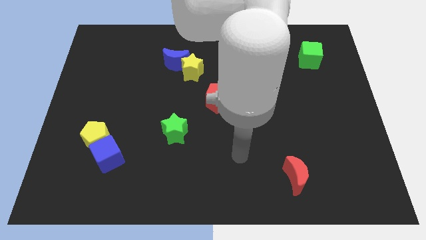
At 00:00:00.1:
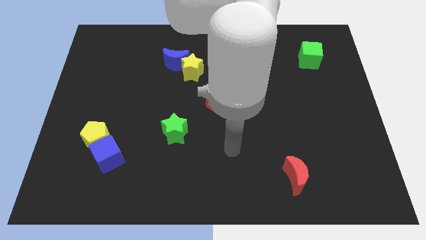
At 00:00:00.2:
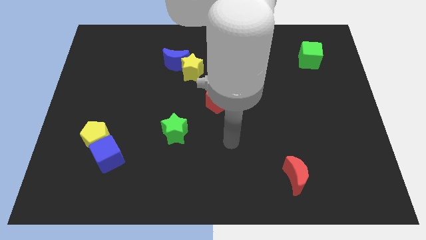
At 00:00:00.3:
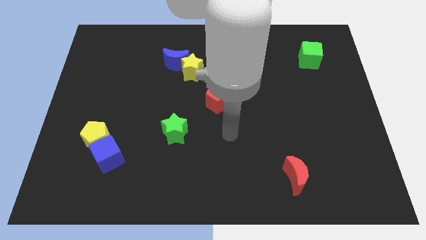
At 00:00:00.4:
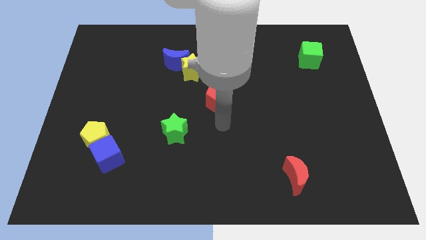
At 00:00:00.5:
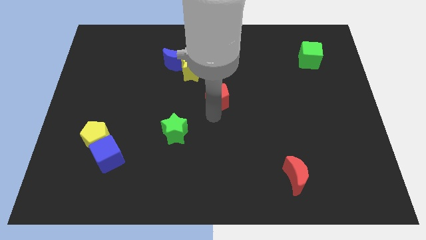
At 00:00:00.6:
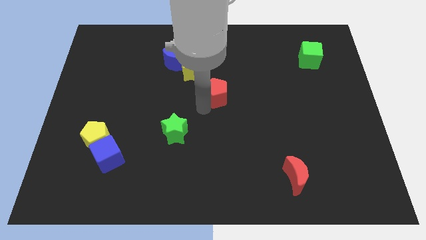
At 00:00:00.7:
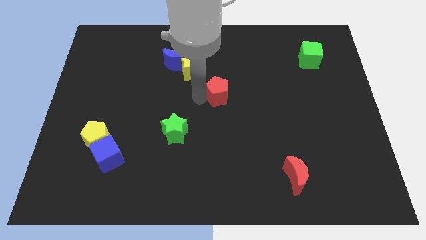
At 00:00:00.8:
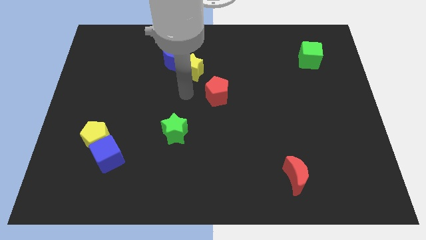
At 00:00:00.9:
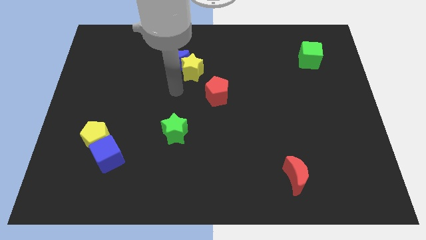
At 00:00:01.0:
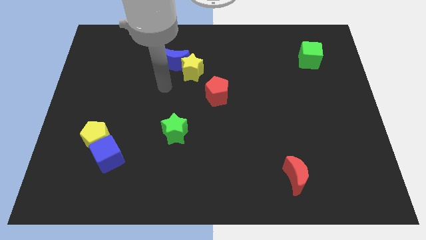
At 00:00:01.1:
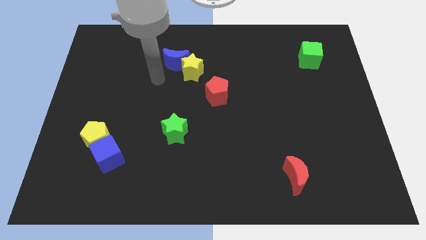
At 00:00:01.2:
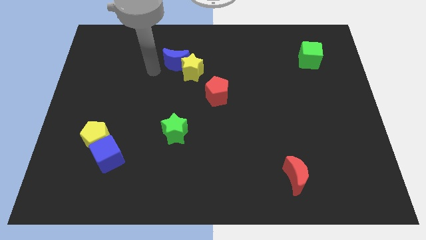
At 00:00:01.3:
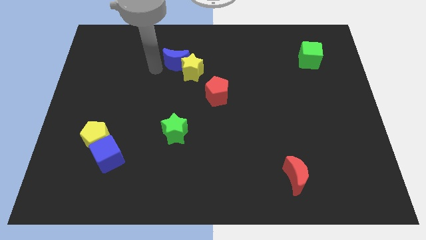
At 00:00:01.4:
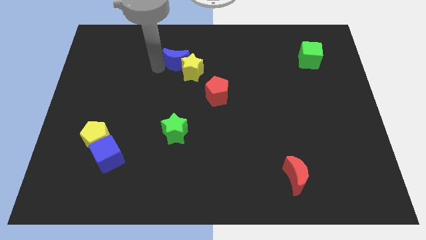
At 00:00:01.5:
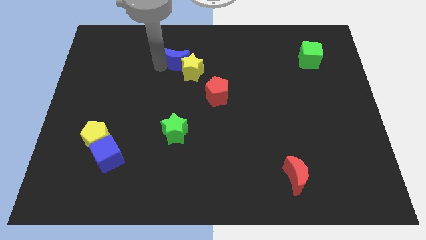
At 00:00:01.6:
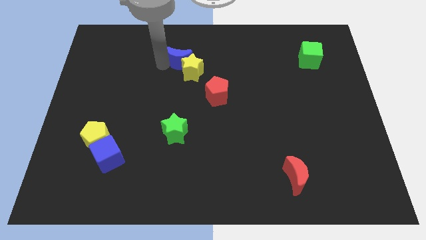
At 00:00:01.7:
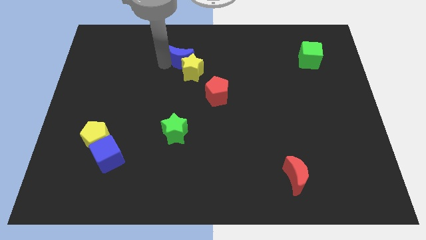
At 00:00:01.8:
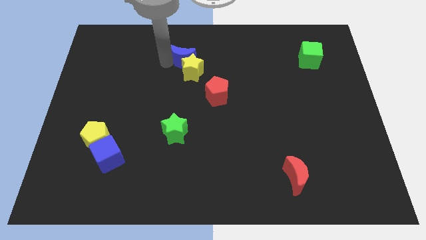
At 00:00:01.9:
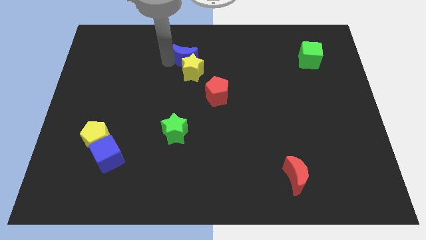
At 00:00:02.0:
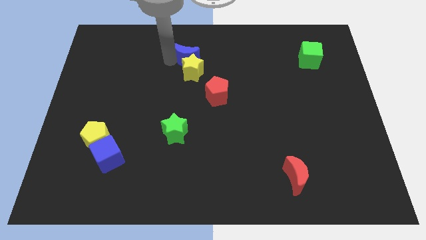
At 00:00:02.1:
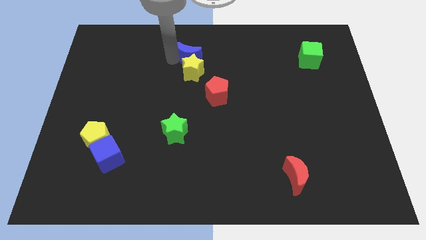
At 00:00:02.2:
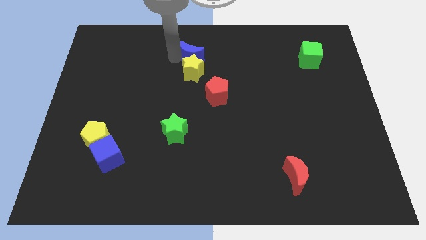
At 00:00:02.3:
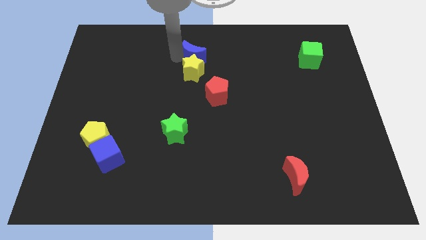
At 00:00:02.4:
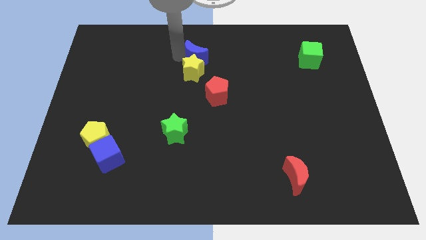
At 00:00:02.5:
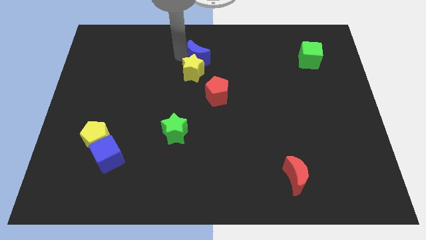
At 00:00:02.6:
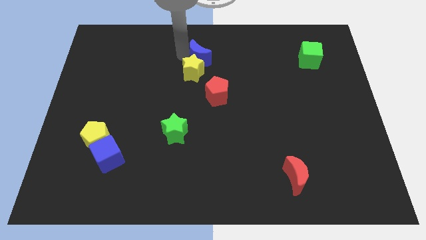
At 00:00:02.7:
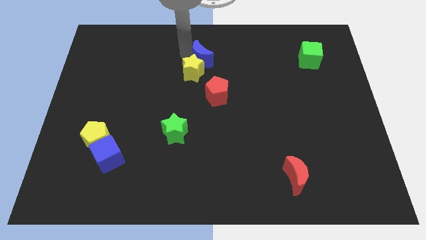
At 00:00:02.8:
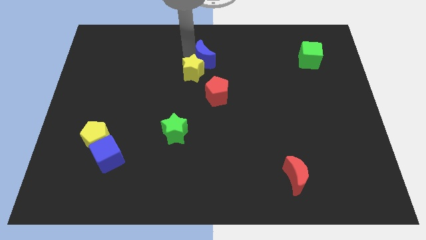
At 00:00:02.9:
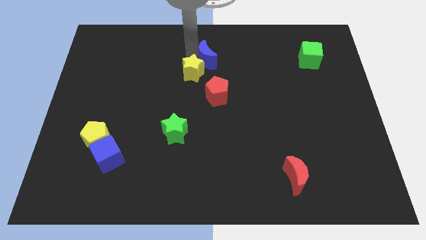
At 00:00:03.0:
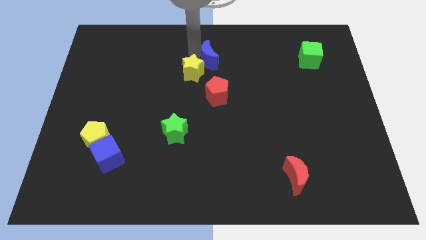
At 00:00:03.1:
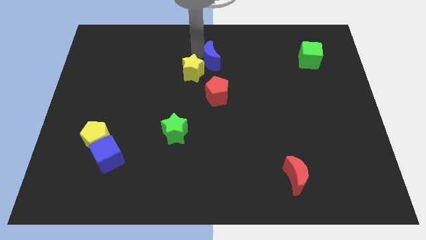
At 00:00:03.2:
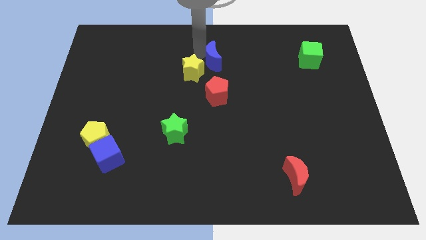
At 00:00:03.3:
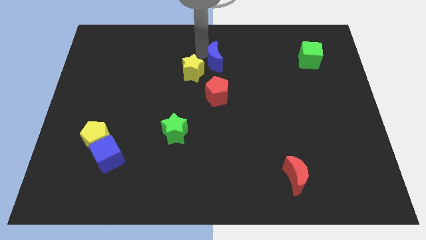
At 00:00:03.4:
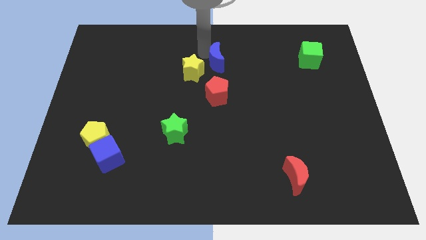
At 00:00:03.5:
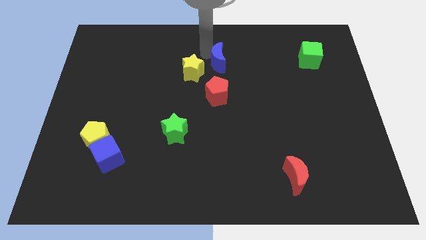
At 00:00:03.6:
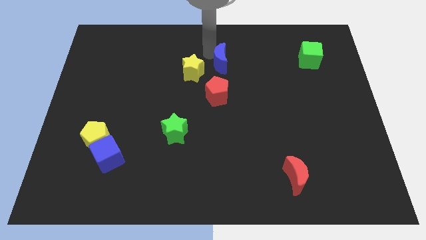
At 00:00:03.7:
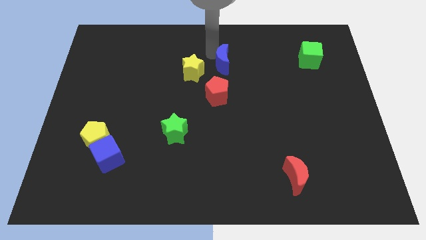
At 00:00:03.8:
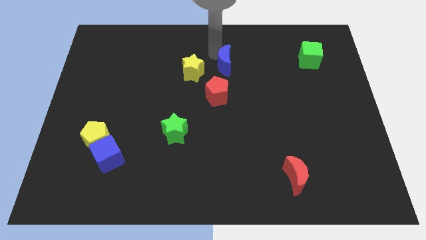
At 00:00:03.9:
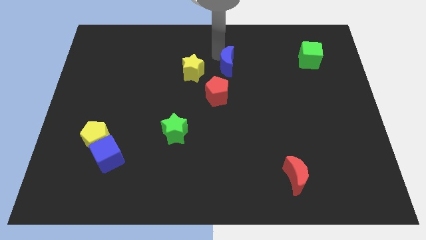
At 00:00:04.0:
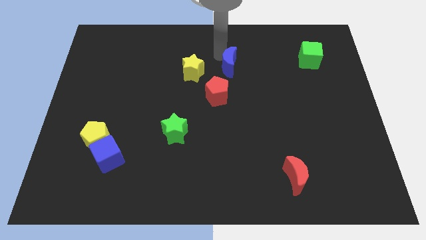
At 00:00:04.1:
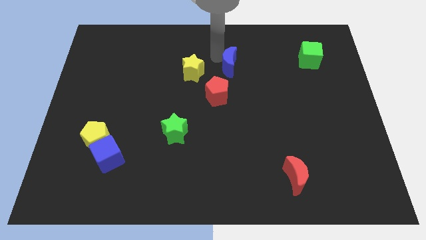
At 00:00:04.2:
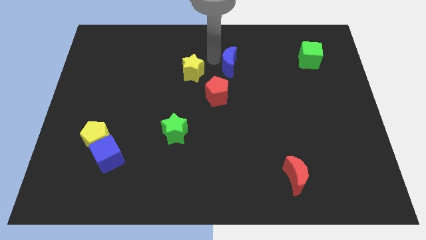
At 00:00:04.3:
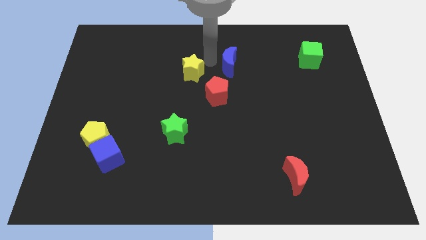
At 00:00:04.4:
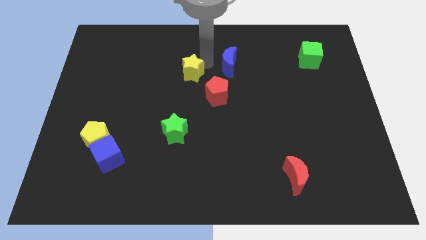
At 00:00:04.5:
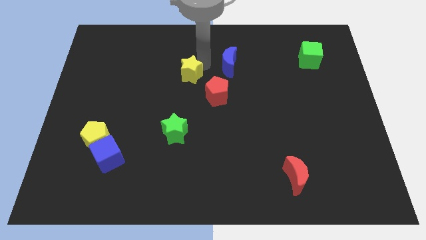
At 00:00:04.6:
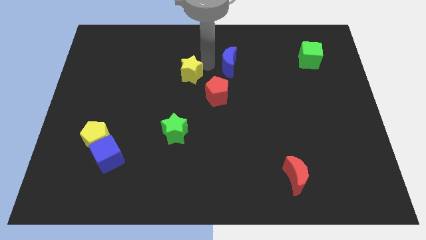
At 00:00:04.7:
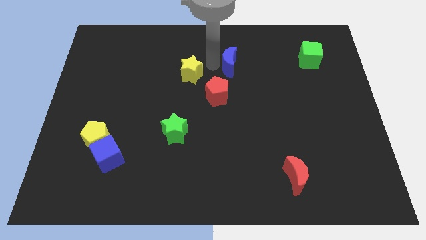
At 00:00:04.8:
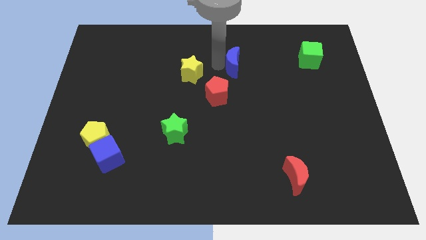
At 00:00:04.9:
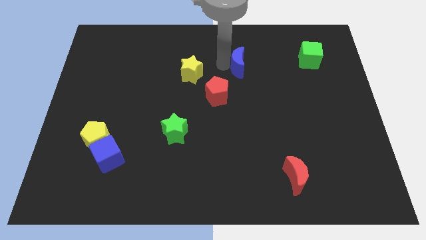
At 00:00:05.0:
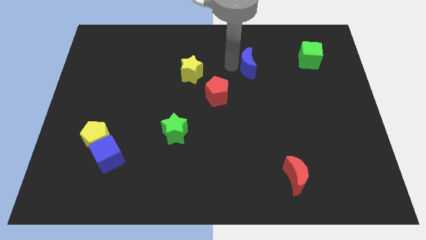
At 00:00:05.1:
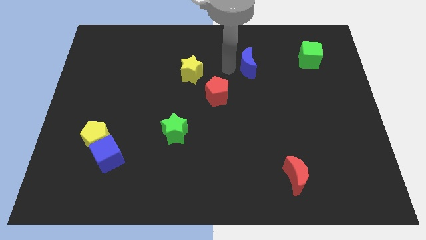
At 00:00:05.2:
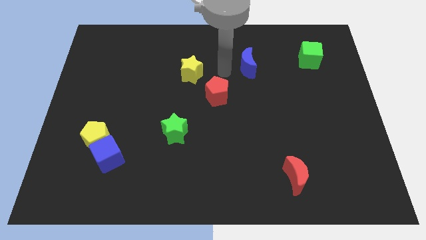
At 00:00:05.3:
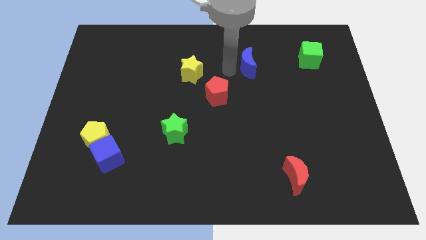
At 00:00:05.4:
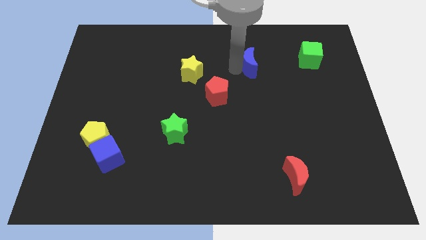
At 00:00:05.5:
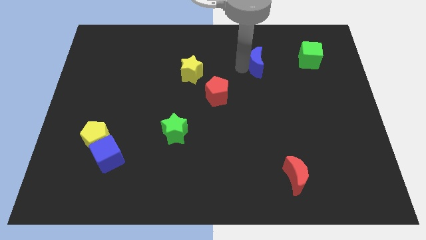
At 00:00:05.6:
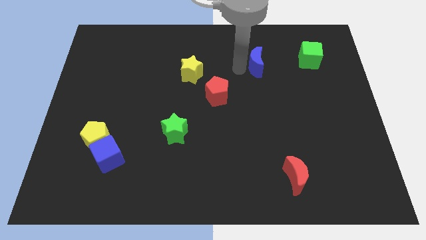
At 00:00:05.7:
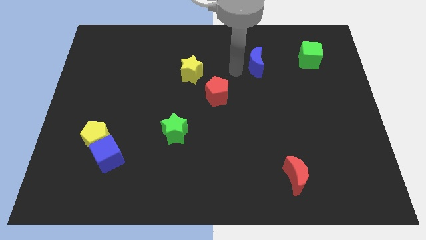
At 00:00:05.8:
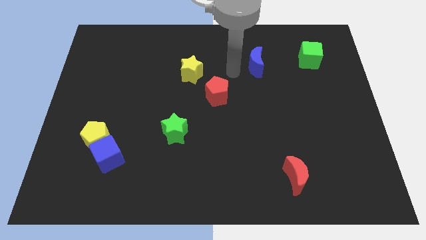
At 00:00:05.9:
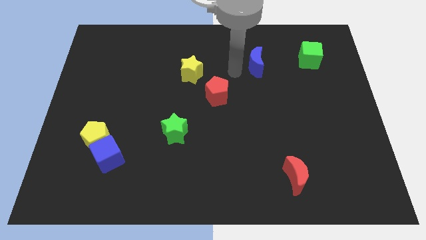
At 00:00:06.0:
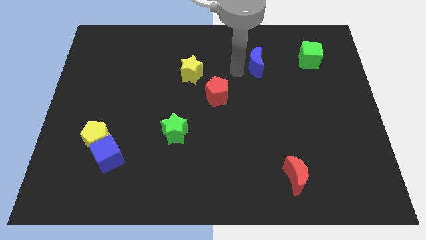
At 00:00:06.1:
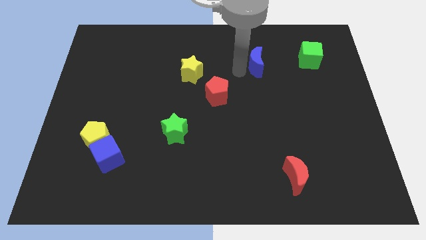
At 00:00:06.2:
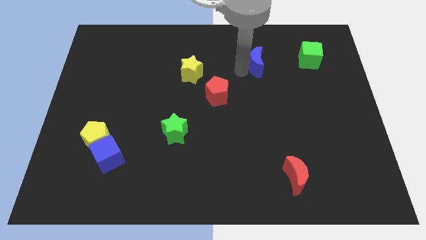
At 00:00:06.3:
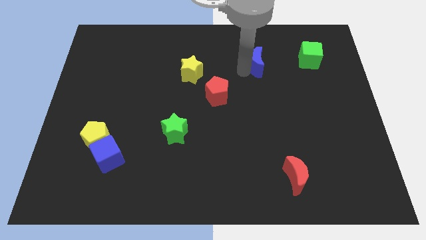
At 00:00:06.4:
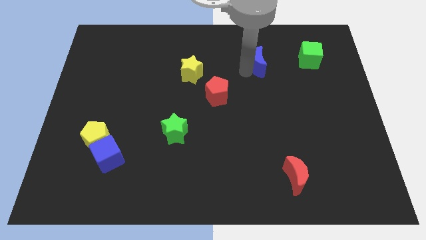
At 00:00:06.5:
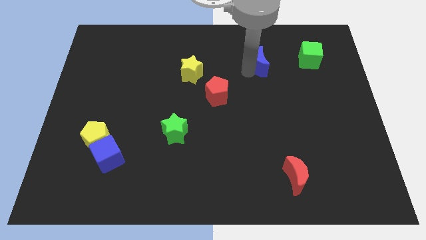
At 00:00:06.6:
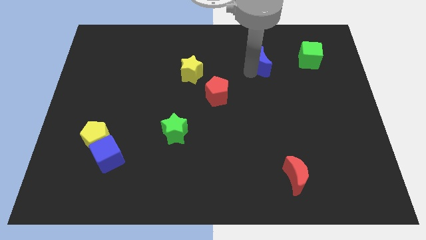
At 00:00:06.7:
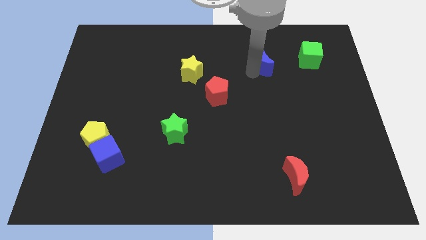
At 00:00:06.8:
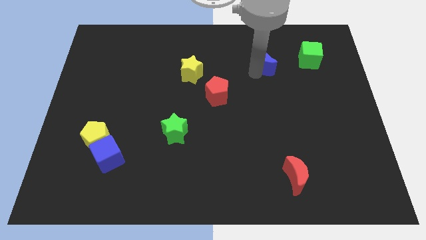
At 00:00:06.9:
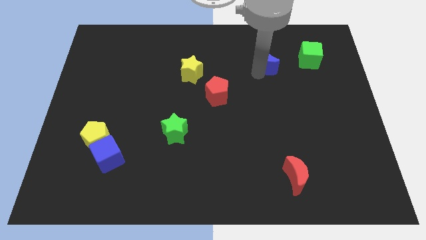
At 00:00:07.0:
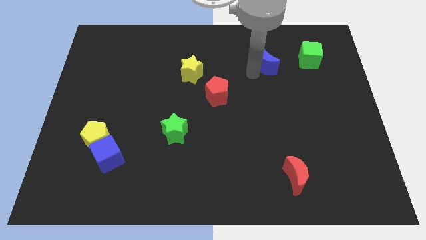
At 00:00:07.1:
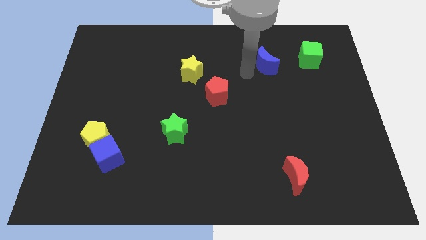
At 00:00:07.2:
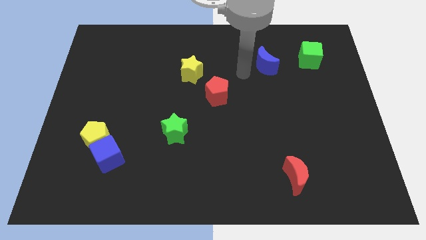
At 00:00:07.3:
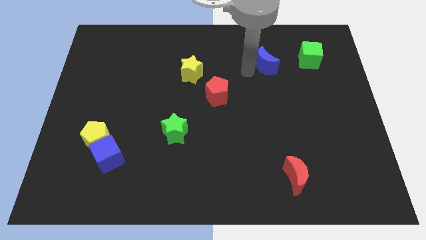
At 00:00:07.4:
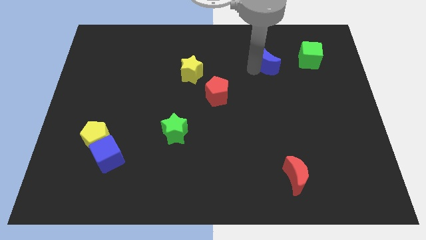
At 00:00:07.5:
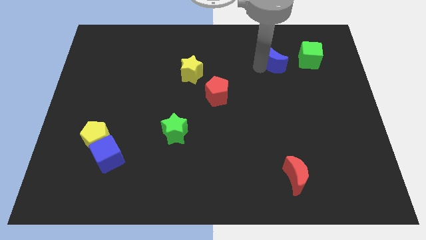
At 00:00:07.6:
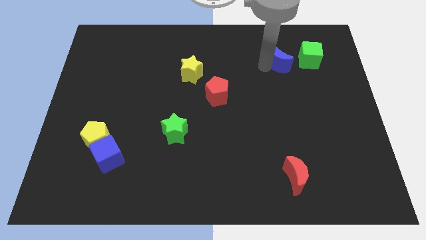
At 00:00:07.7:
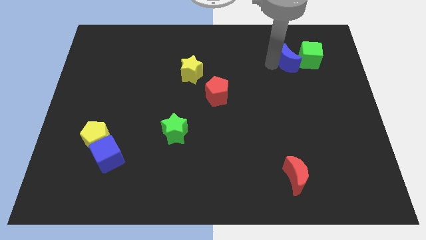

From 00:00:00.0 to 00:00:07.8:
put the blue moon towards the green cube
